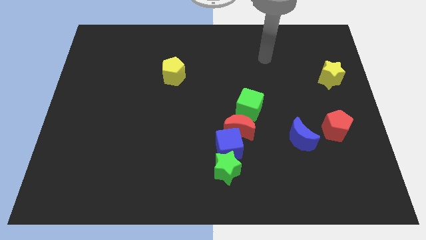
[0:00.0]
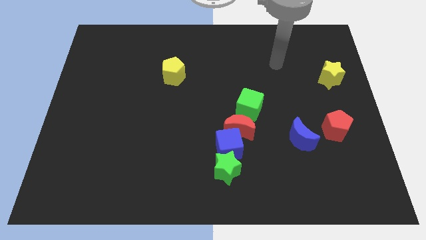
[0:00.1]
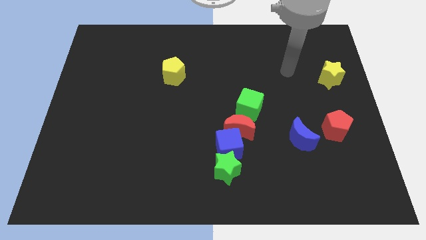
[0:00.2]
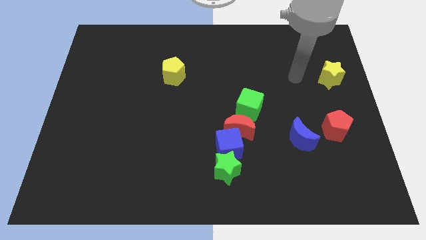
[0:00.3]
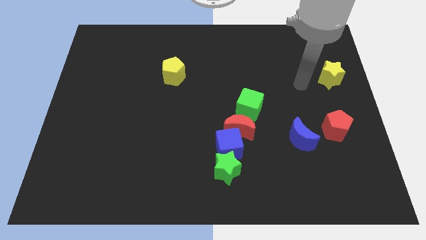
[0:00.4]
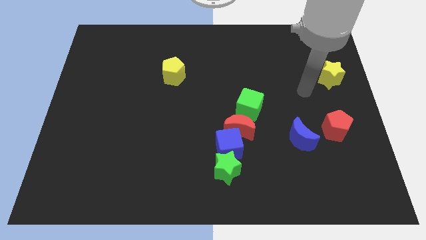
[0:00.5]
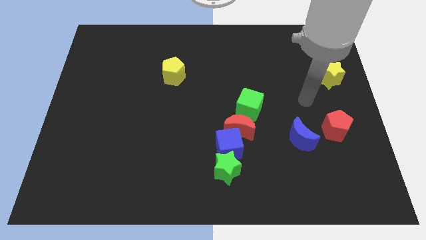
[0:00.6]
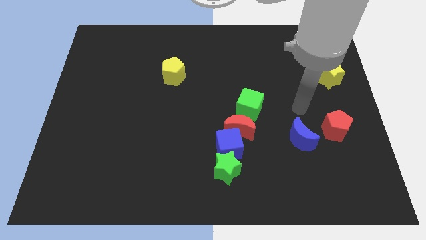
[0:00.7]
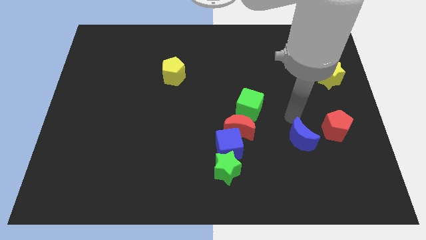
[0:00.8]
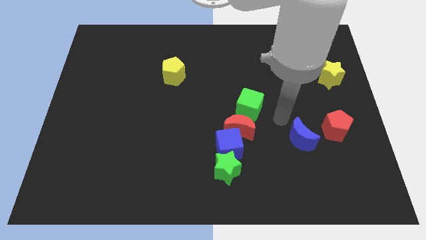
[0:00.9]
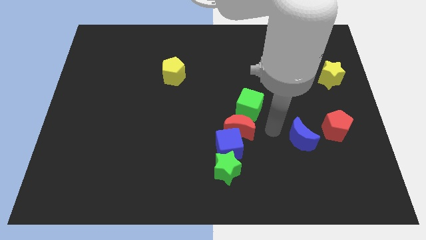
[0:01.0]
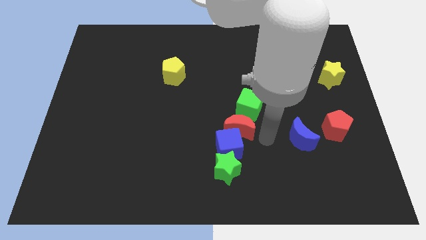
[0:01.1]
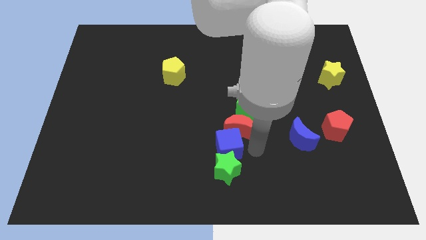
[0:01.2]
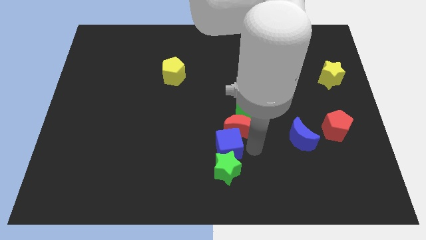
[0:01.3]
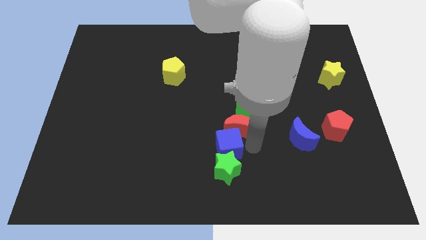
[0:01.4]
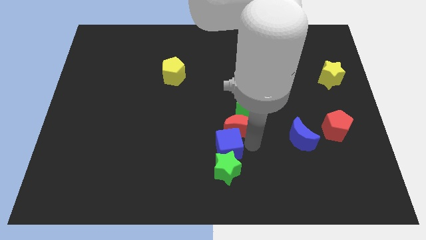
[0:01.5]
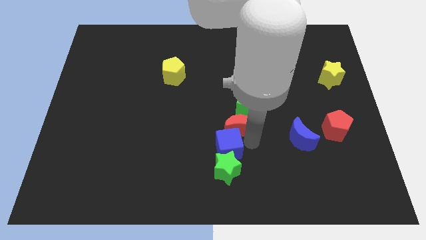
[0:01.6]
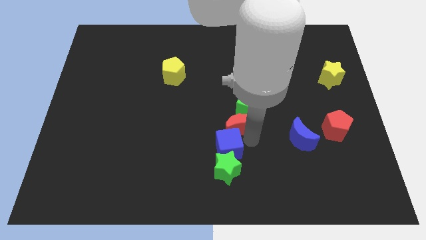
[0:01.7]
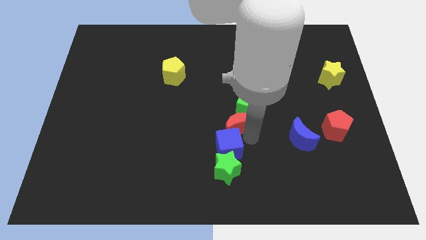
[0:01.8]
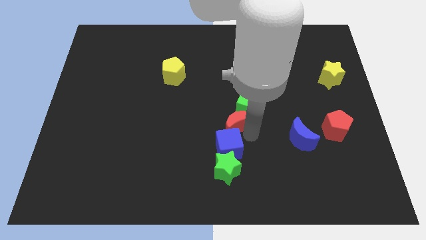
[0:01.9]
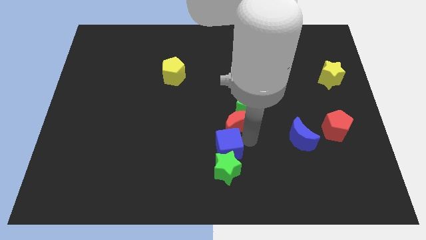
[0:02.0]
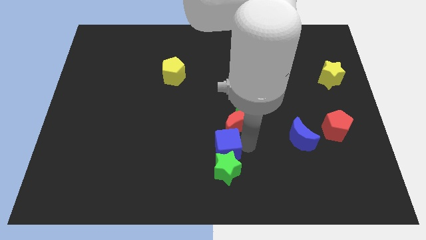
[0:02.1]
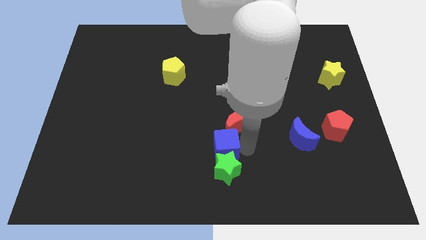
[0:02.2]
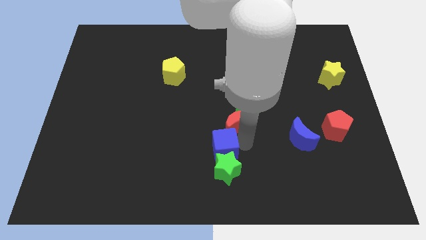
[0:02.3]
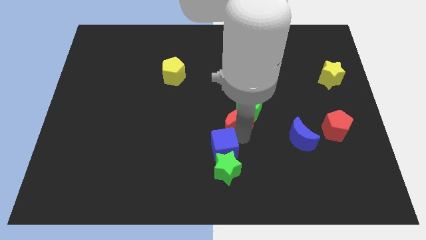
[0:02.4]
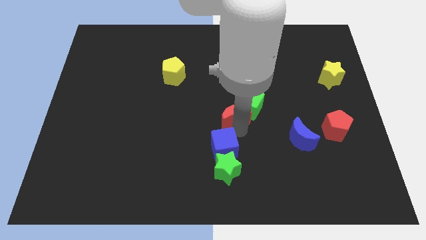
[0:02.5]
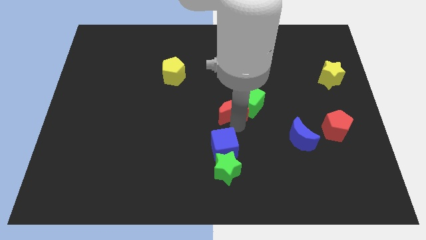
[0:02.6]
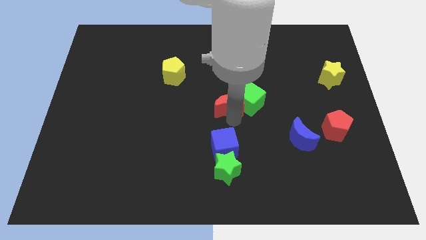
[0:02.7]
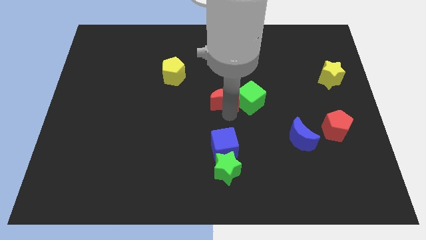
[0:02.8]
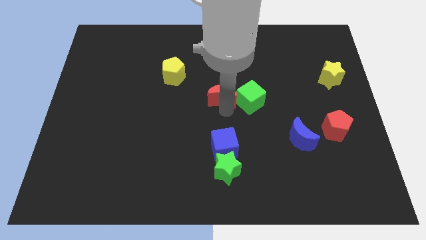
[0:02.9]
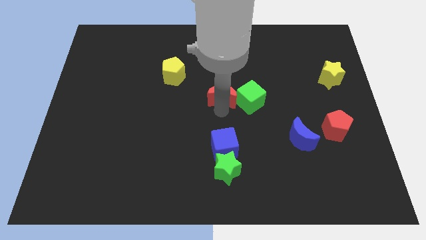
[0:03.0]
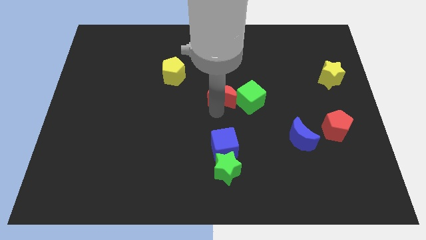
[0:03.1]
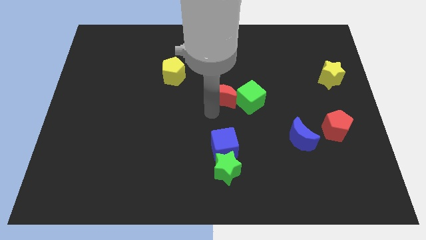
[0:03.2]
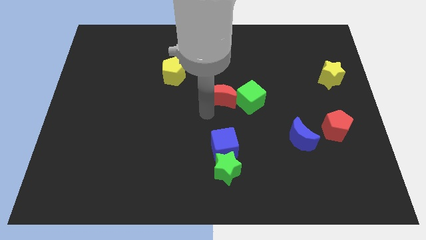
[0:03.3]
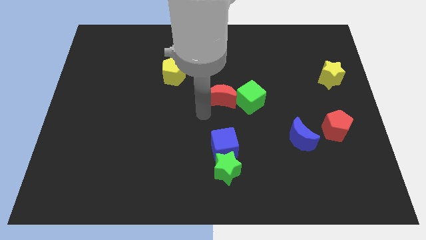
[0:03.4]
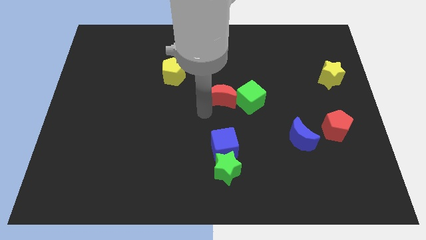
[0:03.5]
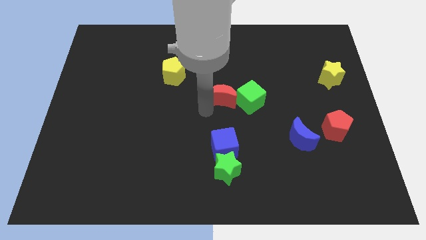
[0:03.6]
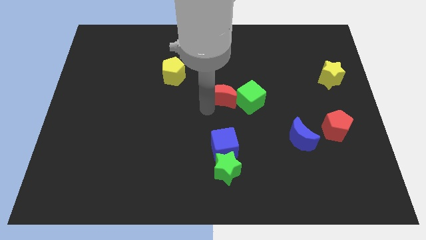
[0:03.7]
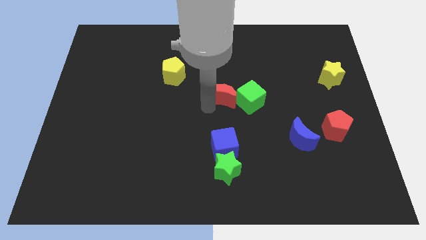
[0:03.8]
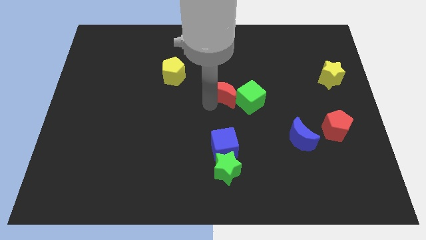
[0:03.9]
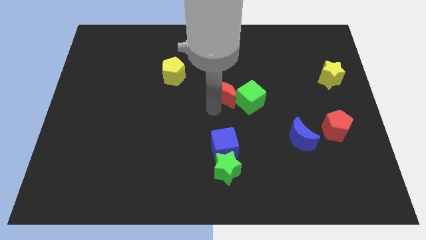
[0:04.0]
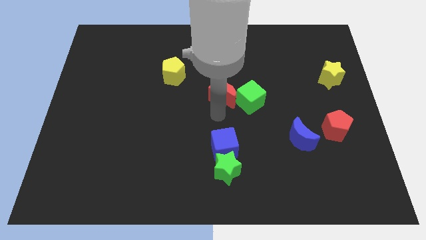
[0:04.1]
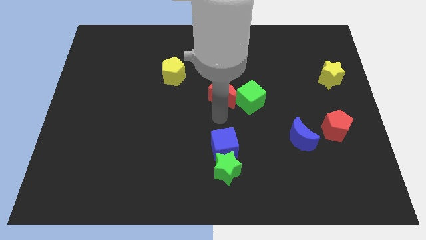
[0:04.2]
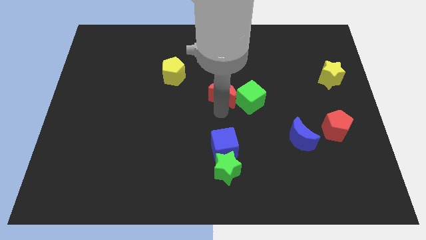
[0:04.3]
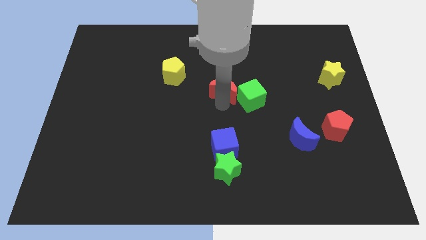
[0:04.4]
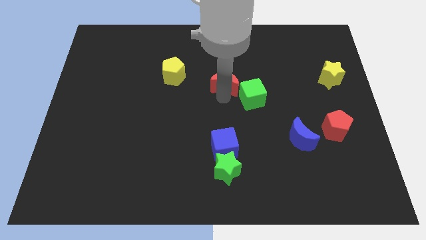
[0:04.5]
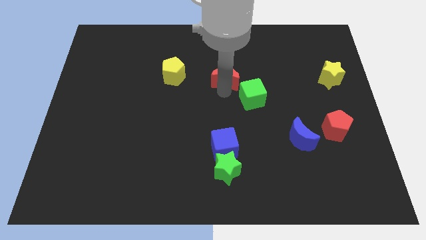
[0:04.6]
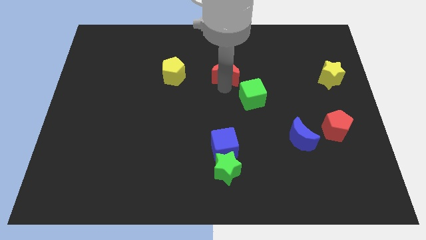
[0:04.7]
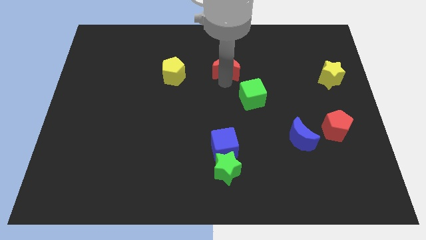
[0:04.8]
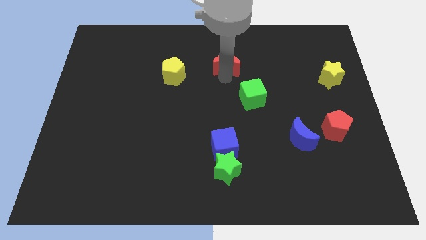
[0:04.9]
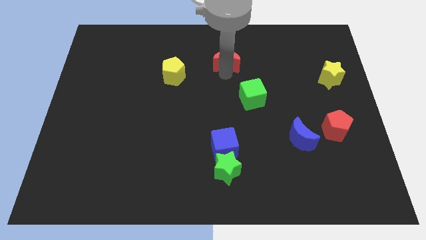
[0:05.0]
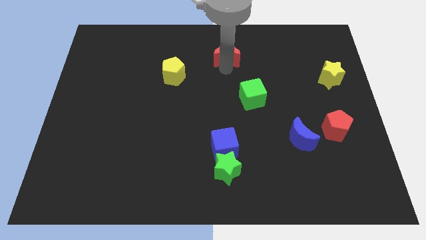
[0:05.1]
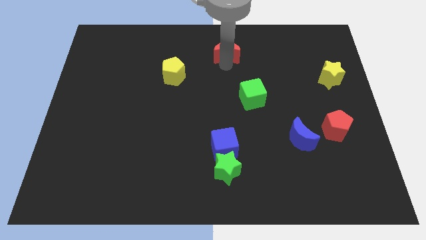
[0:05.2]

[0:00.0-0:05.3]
put the red moon to the top side

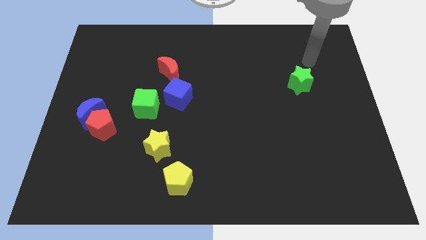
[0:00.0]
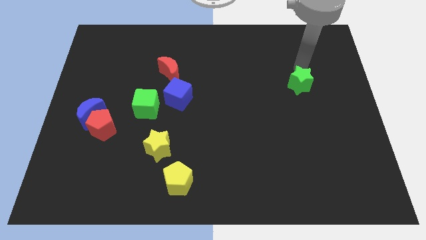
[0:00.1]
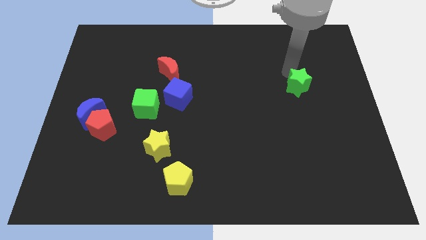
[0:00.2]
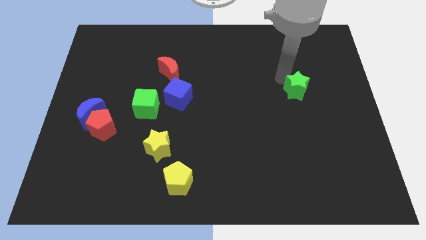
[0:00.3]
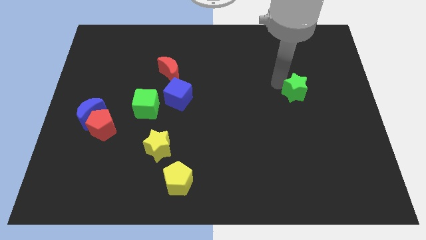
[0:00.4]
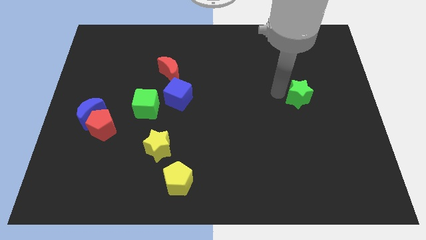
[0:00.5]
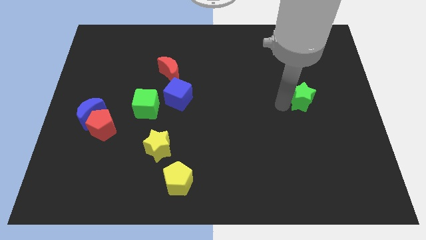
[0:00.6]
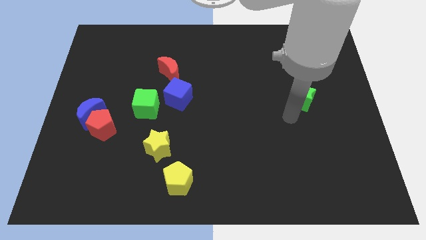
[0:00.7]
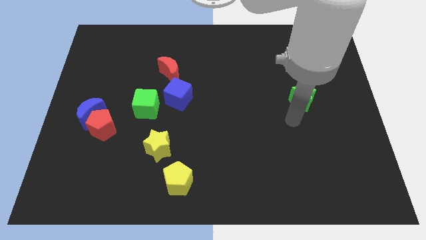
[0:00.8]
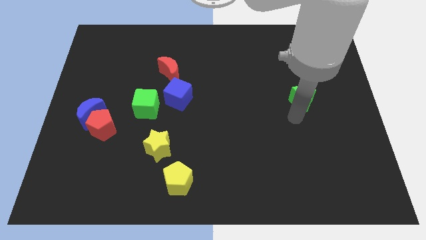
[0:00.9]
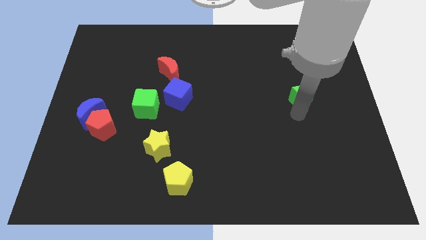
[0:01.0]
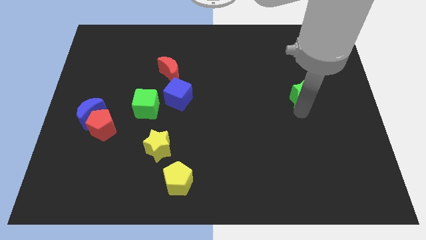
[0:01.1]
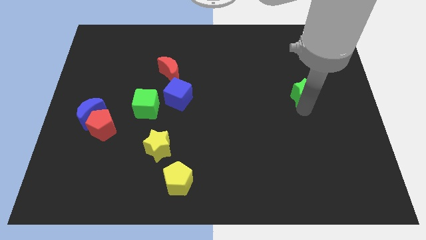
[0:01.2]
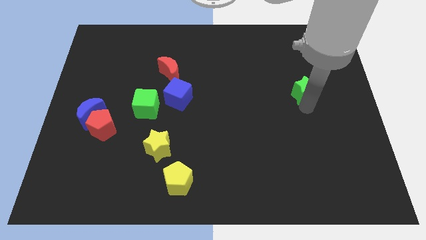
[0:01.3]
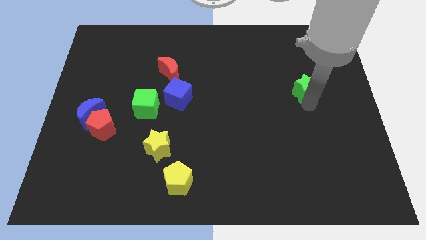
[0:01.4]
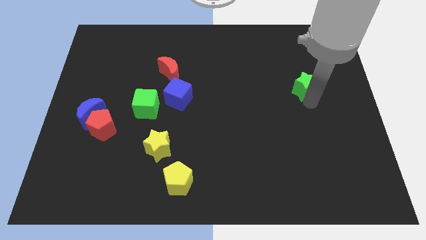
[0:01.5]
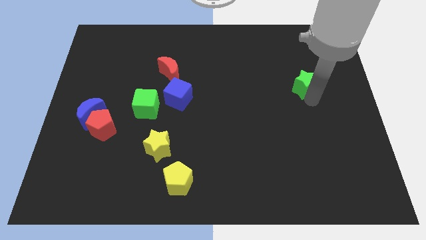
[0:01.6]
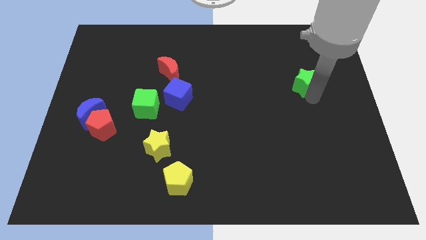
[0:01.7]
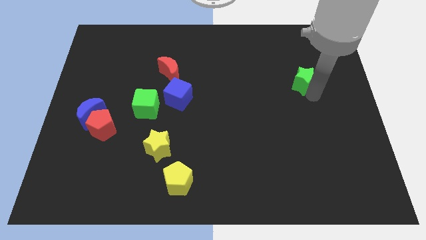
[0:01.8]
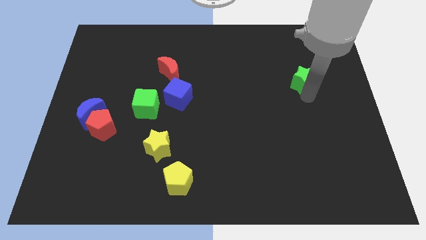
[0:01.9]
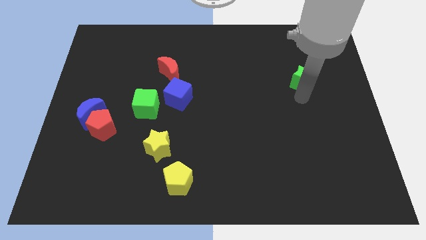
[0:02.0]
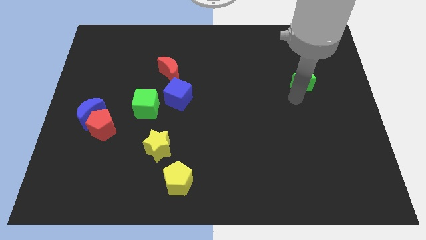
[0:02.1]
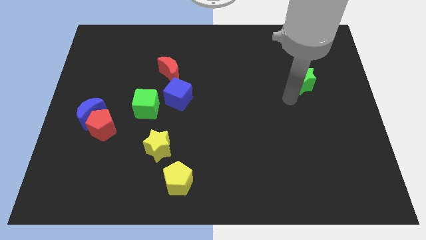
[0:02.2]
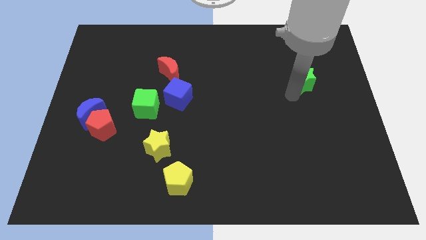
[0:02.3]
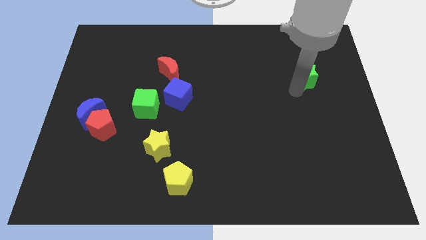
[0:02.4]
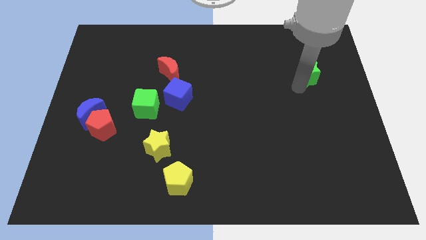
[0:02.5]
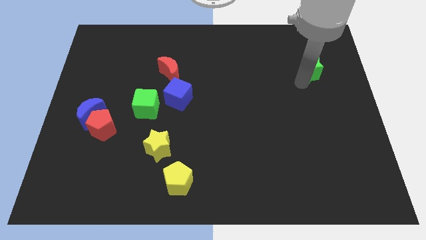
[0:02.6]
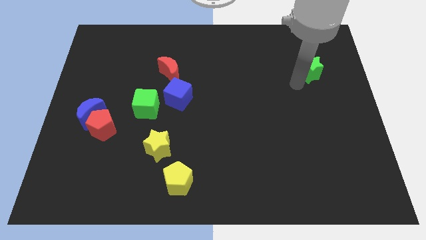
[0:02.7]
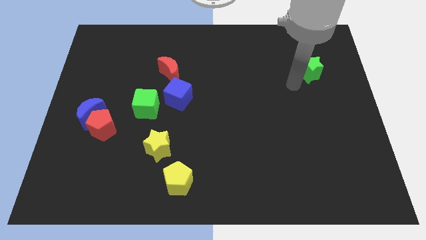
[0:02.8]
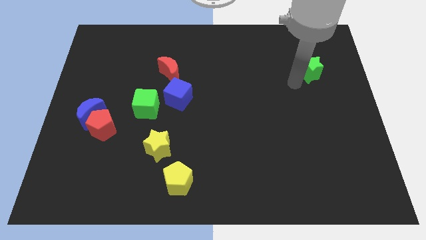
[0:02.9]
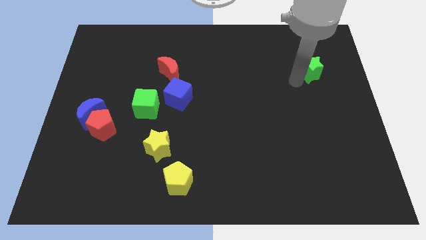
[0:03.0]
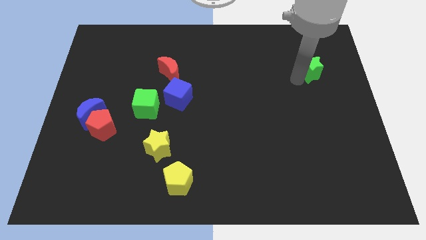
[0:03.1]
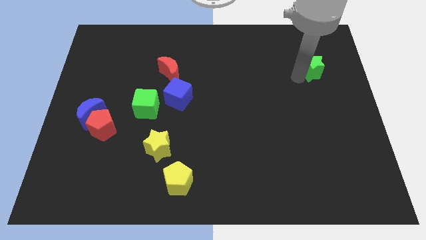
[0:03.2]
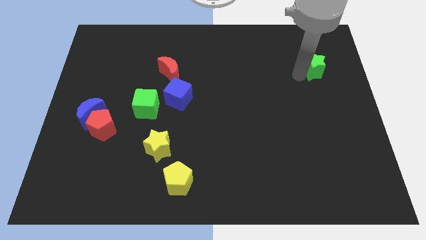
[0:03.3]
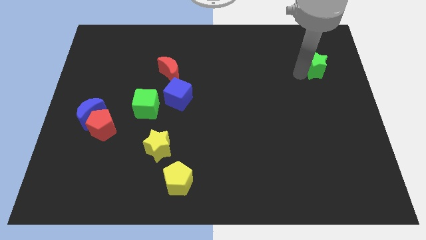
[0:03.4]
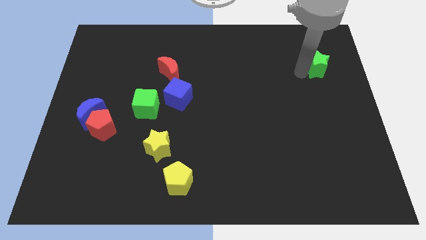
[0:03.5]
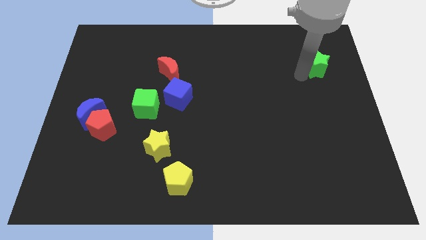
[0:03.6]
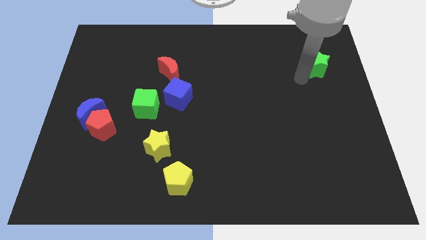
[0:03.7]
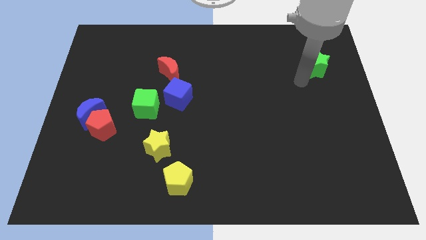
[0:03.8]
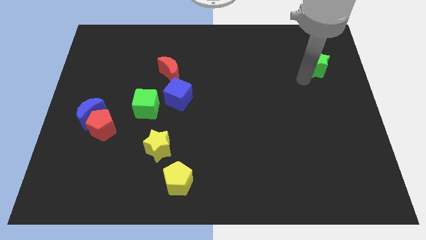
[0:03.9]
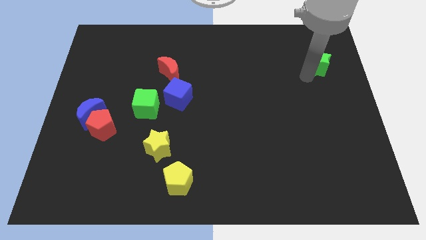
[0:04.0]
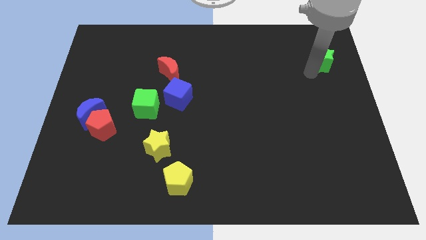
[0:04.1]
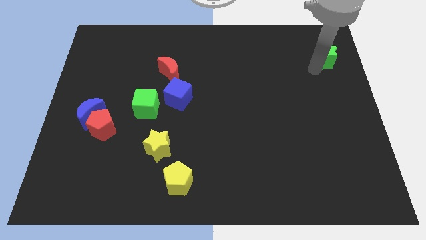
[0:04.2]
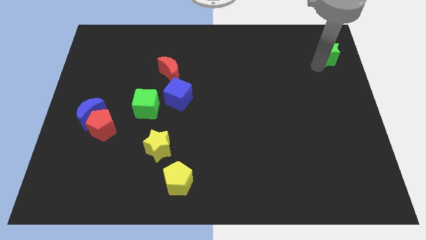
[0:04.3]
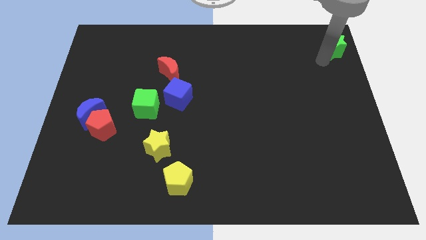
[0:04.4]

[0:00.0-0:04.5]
put the green star to the top right of the board
